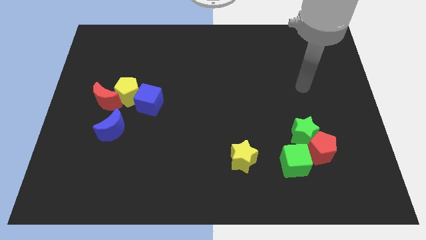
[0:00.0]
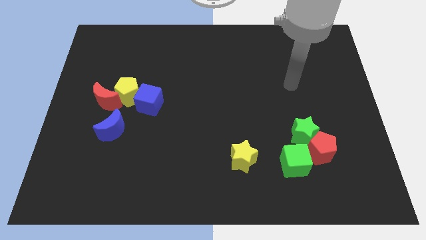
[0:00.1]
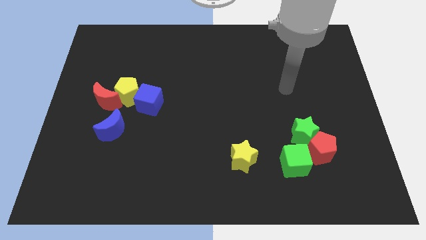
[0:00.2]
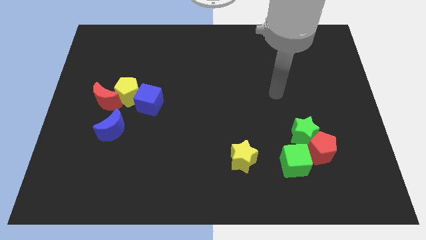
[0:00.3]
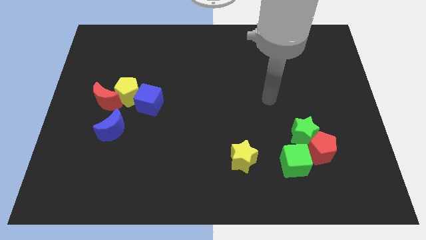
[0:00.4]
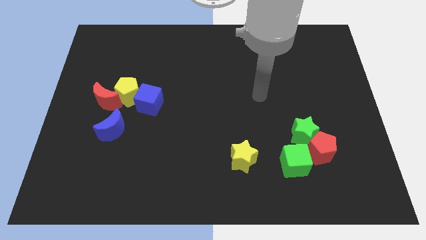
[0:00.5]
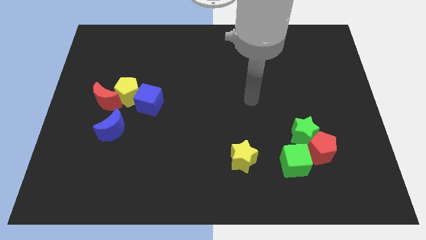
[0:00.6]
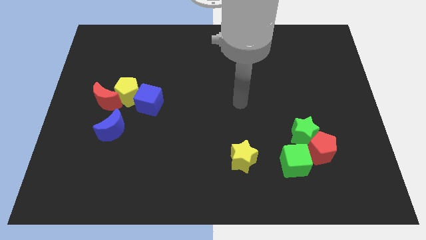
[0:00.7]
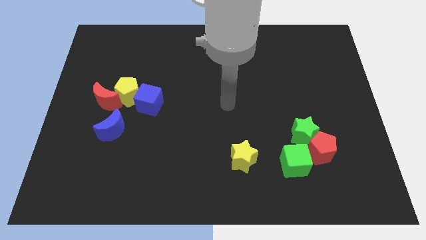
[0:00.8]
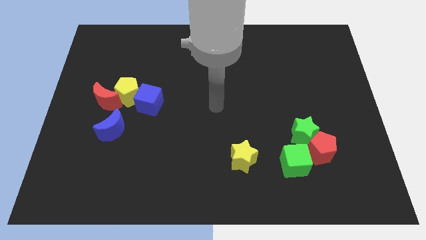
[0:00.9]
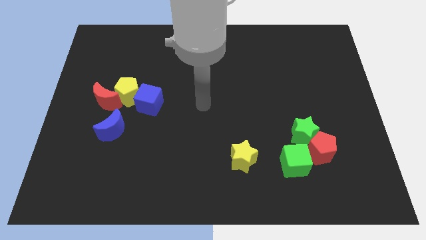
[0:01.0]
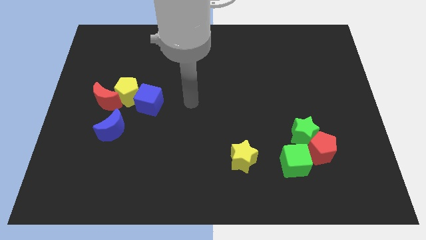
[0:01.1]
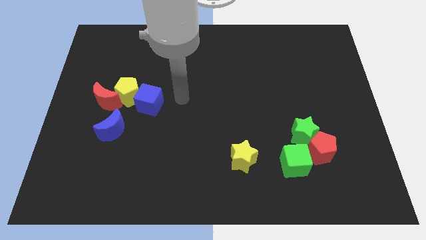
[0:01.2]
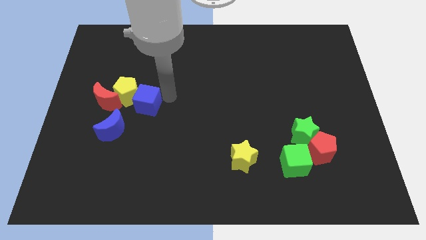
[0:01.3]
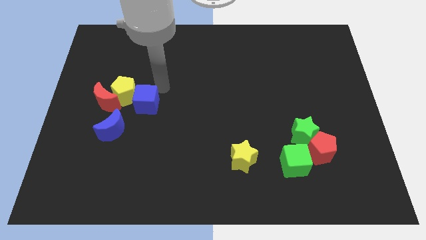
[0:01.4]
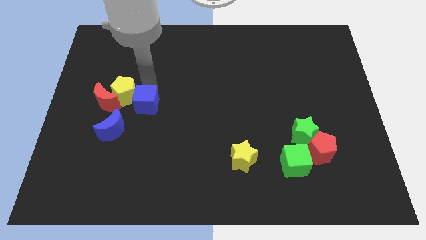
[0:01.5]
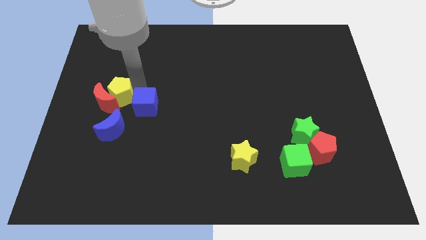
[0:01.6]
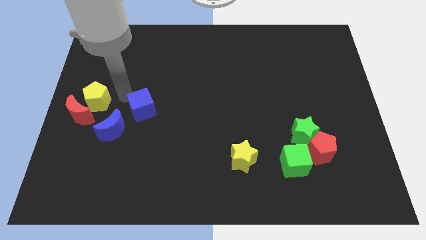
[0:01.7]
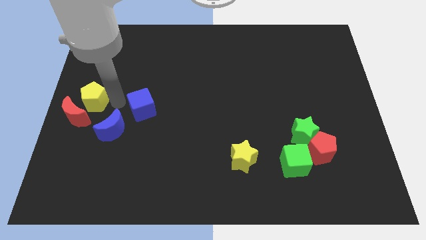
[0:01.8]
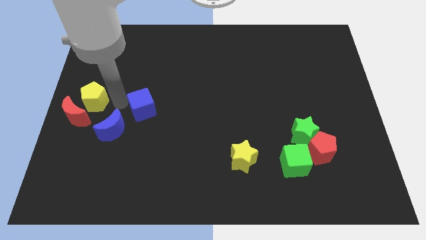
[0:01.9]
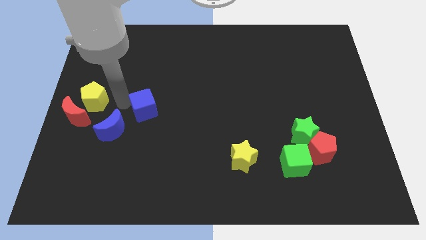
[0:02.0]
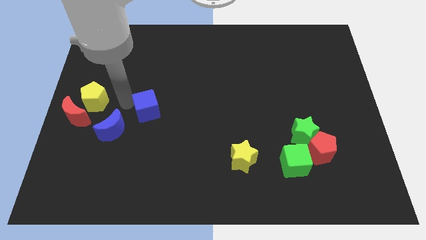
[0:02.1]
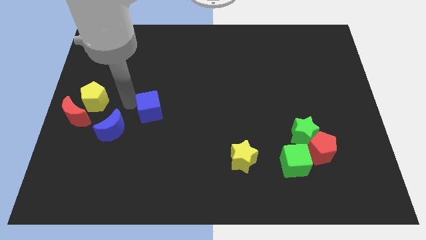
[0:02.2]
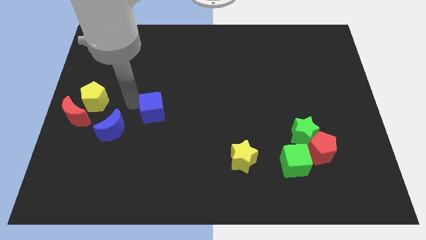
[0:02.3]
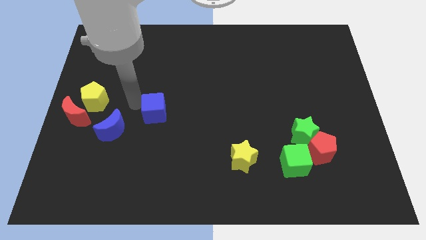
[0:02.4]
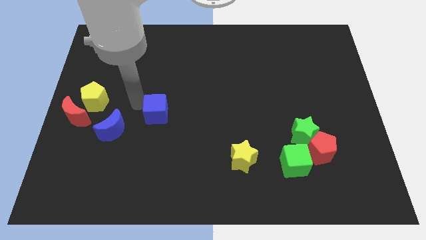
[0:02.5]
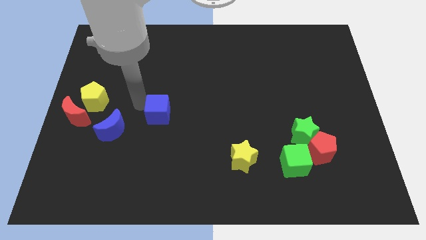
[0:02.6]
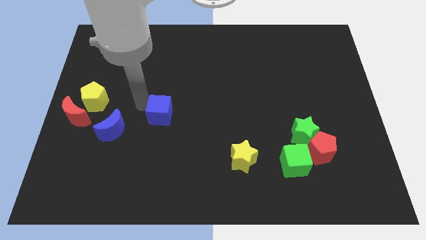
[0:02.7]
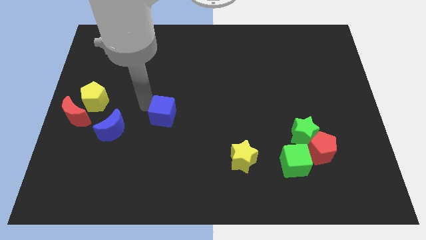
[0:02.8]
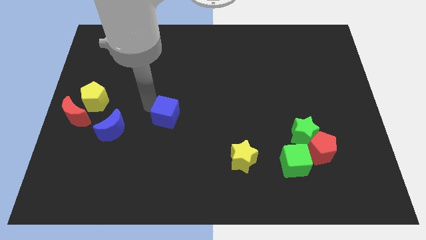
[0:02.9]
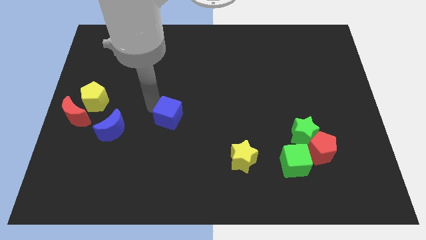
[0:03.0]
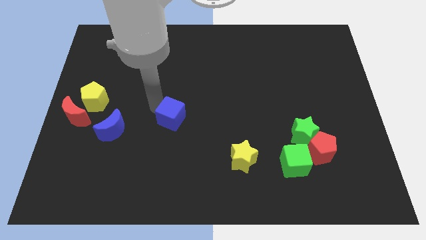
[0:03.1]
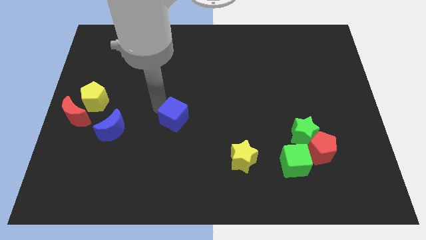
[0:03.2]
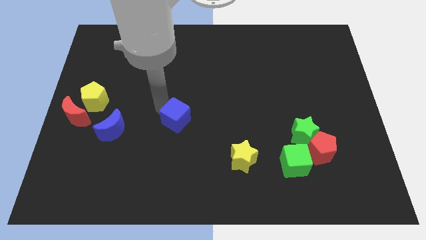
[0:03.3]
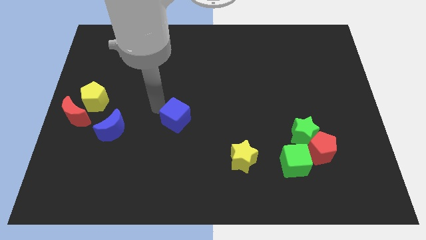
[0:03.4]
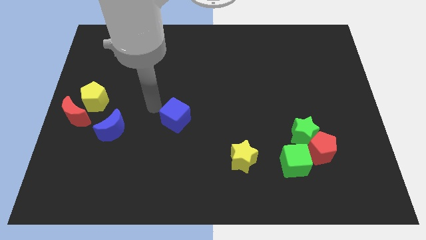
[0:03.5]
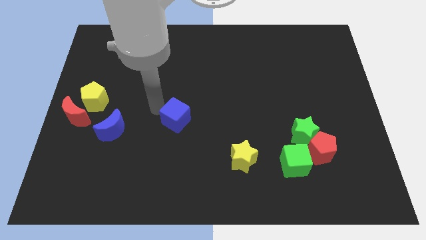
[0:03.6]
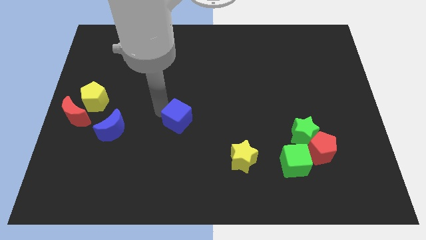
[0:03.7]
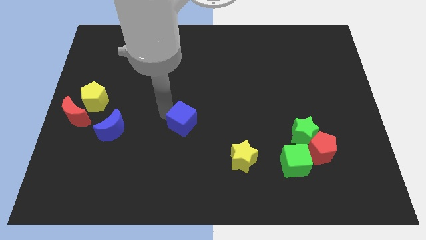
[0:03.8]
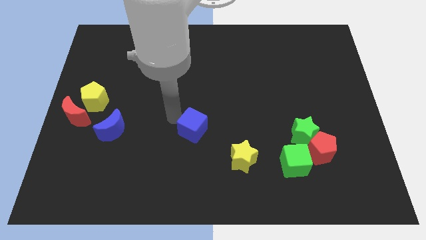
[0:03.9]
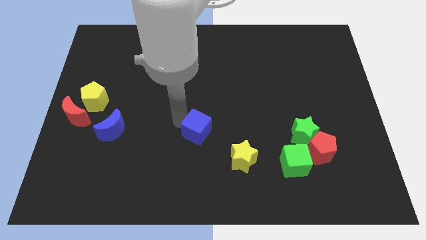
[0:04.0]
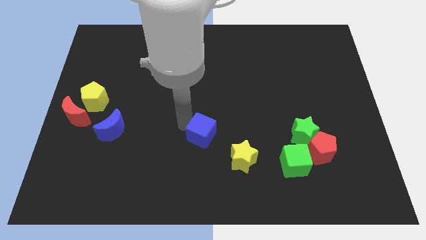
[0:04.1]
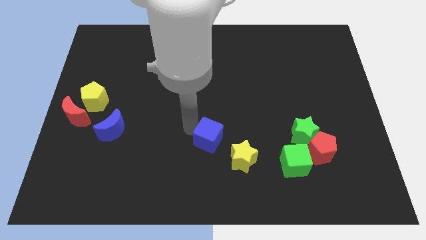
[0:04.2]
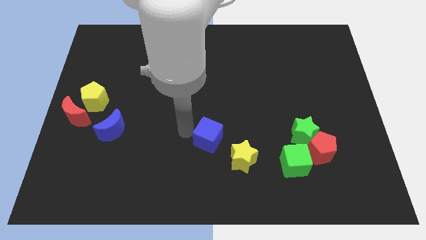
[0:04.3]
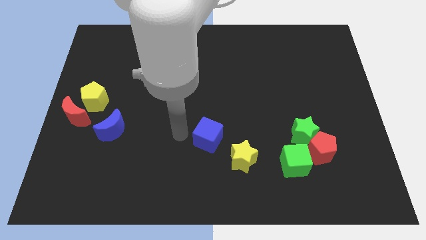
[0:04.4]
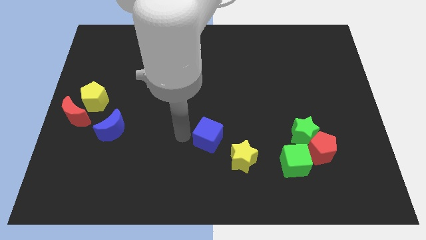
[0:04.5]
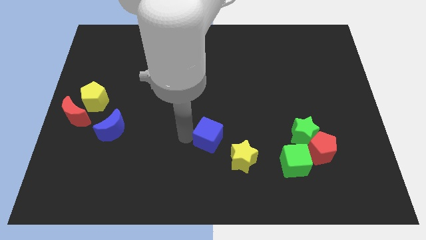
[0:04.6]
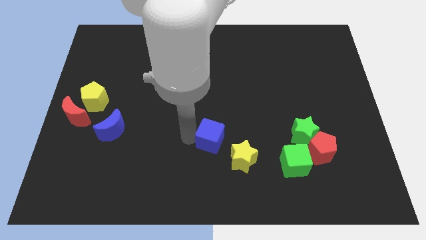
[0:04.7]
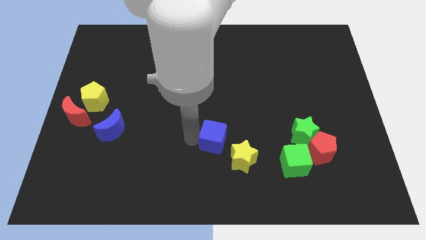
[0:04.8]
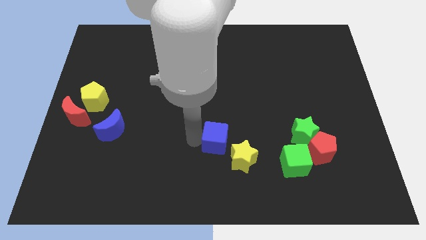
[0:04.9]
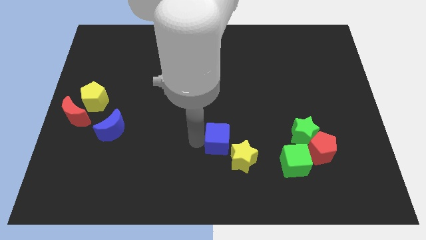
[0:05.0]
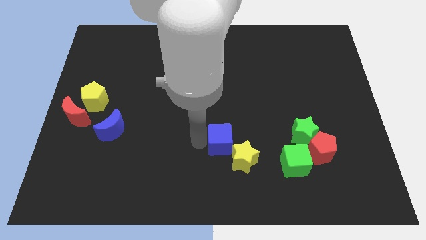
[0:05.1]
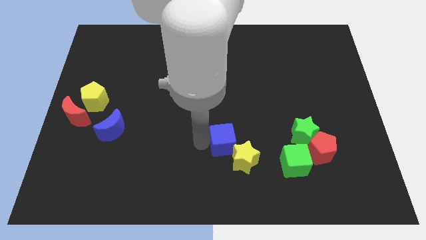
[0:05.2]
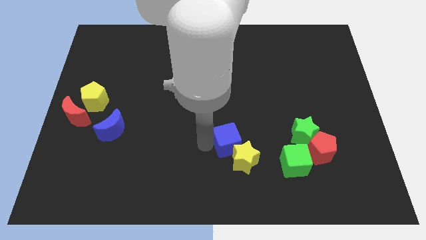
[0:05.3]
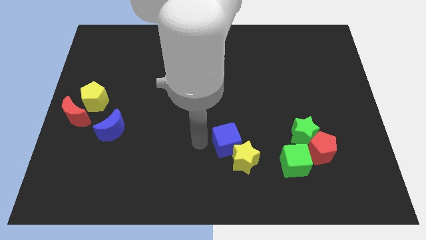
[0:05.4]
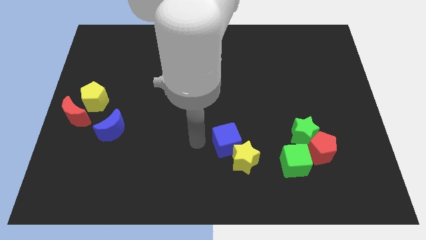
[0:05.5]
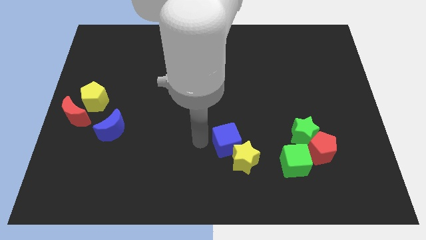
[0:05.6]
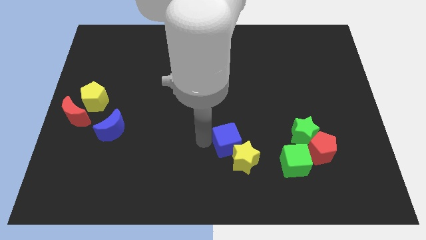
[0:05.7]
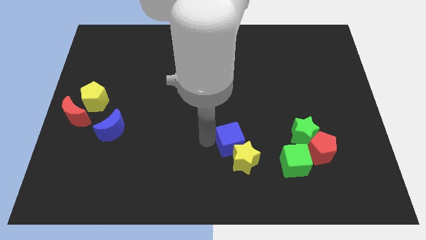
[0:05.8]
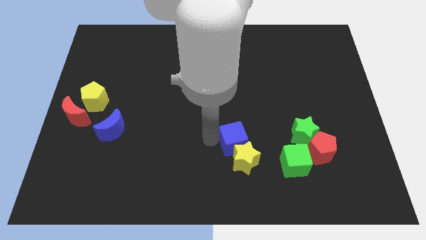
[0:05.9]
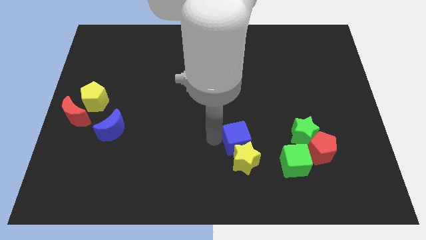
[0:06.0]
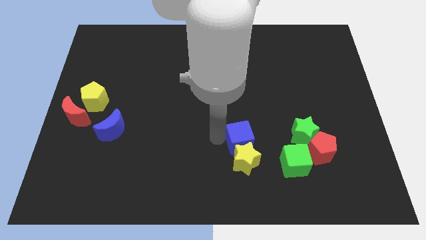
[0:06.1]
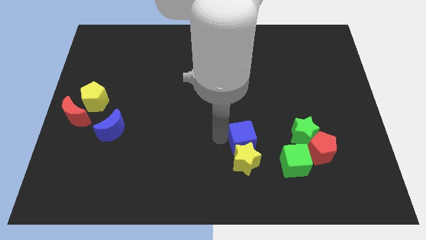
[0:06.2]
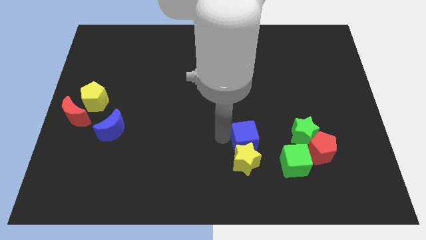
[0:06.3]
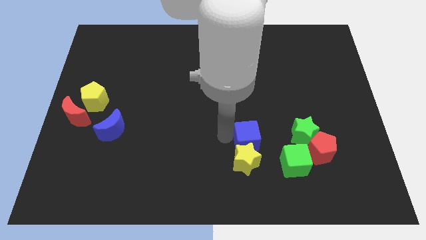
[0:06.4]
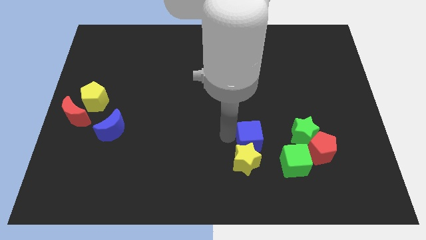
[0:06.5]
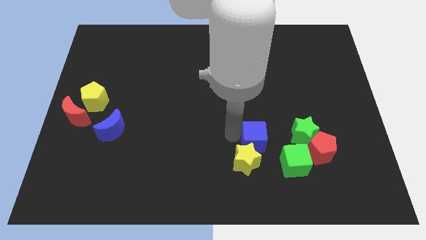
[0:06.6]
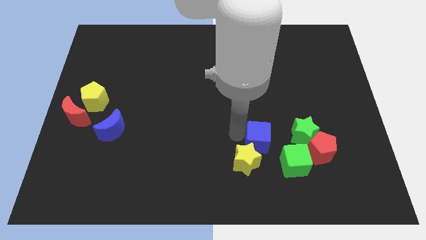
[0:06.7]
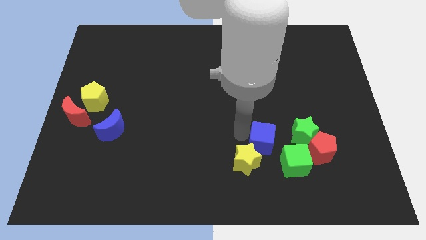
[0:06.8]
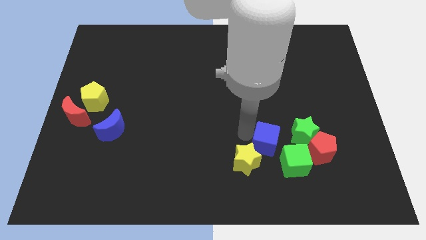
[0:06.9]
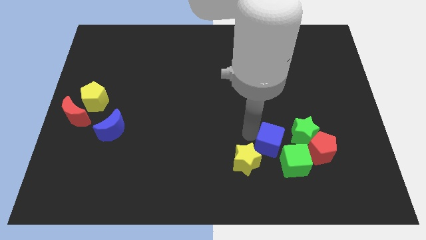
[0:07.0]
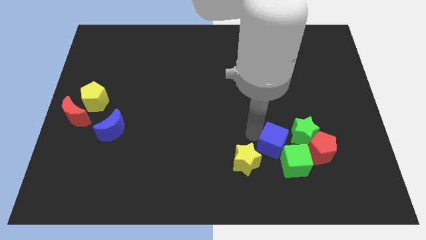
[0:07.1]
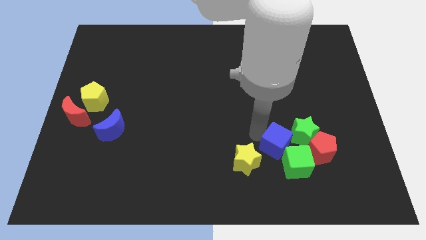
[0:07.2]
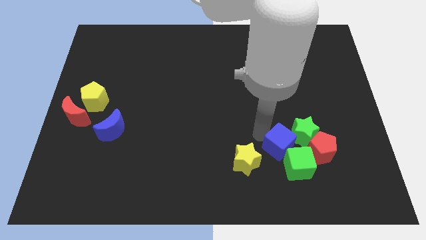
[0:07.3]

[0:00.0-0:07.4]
slide the blue cube close to the green cube

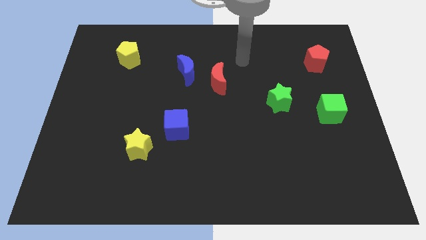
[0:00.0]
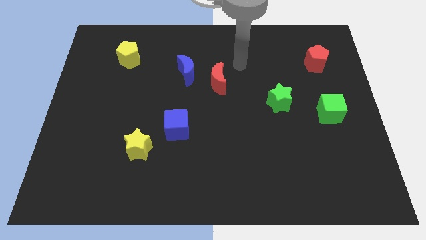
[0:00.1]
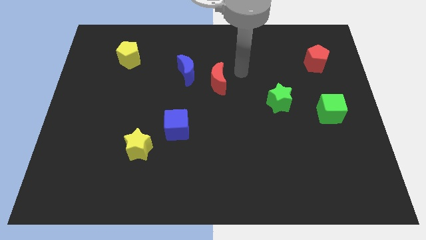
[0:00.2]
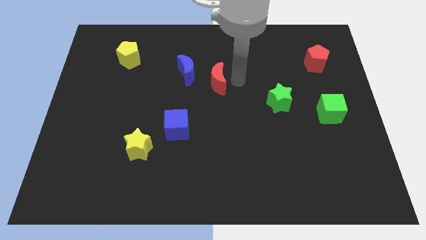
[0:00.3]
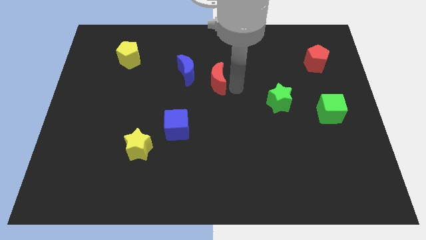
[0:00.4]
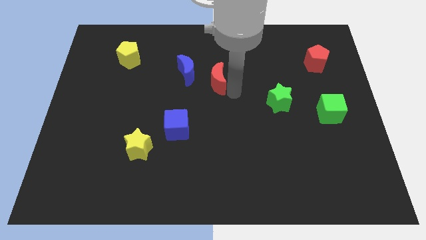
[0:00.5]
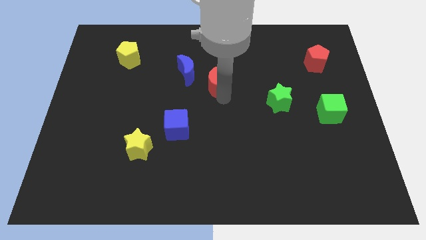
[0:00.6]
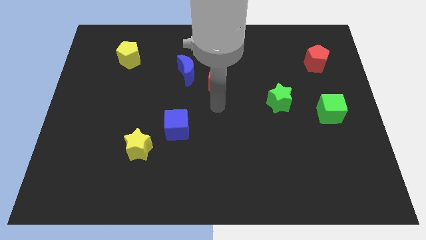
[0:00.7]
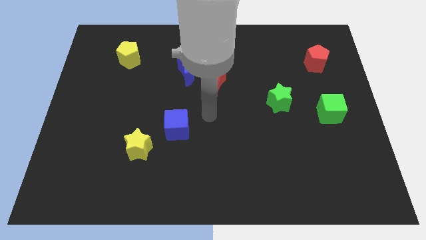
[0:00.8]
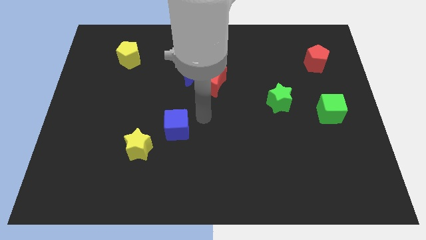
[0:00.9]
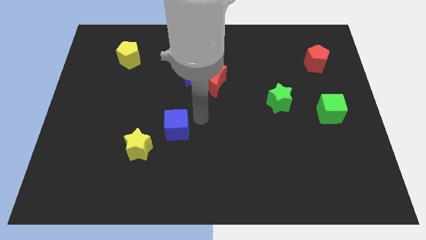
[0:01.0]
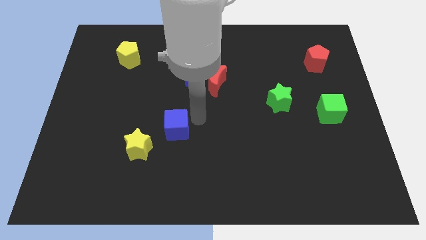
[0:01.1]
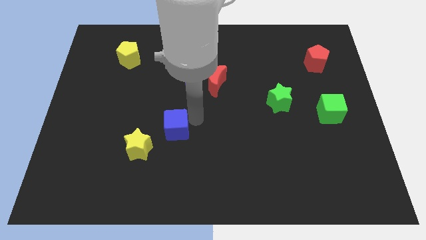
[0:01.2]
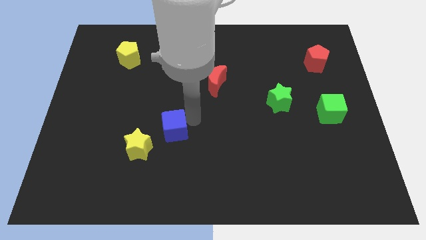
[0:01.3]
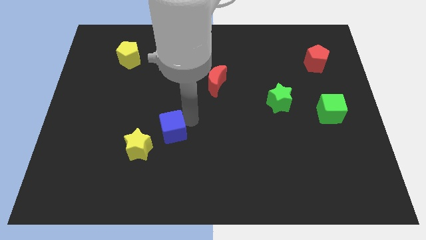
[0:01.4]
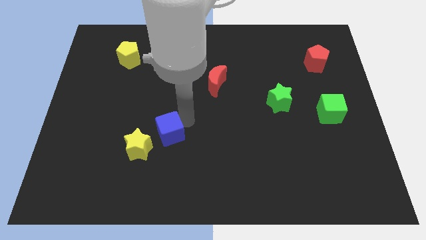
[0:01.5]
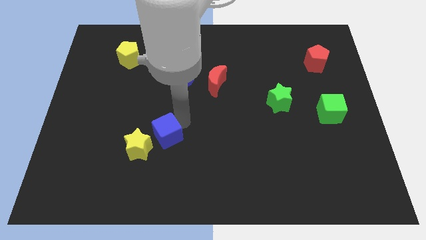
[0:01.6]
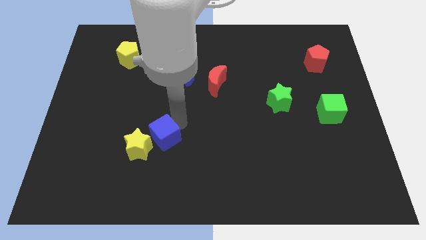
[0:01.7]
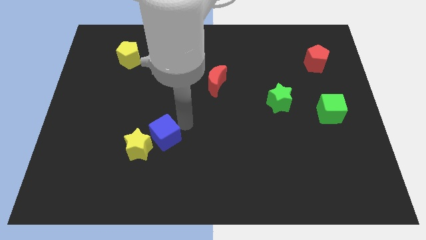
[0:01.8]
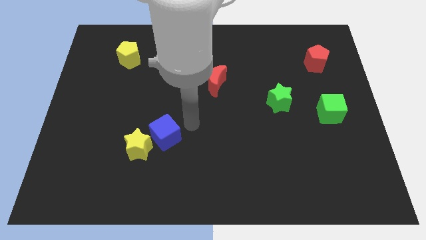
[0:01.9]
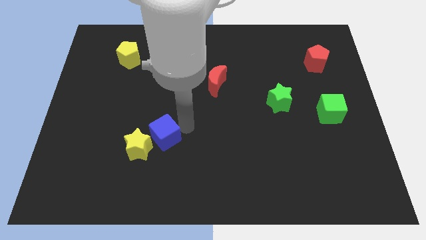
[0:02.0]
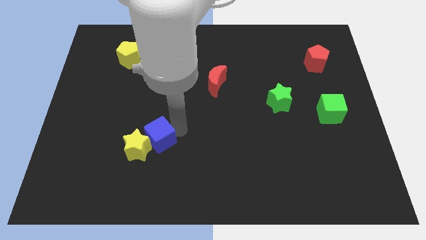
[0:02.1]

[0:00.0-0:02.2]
move the blue cube towards the yellow star
